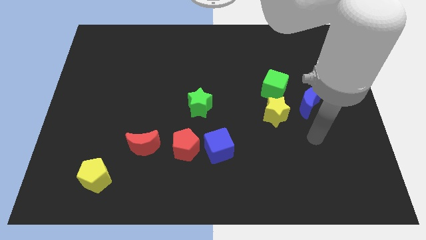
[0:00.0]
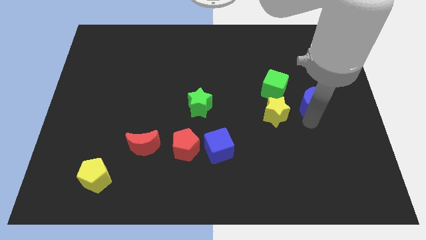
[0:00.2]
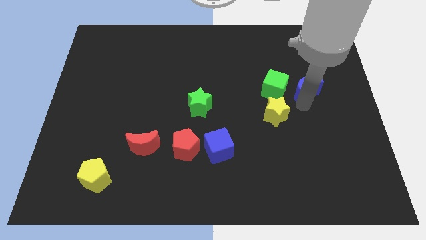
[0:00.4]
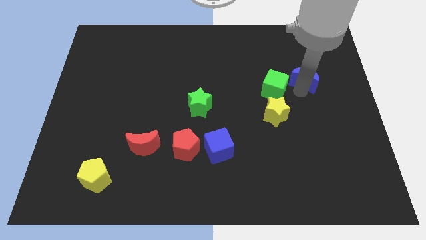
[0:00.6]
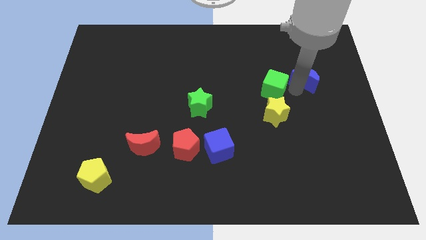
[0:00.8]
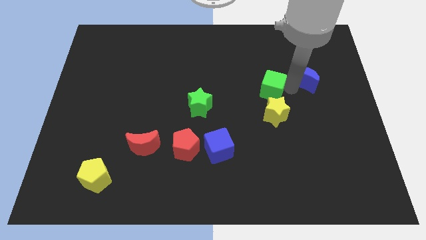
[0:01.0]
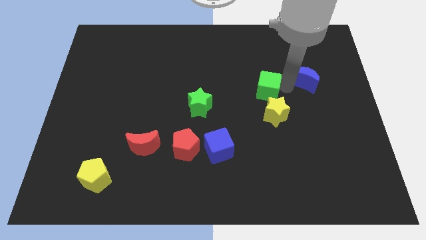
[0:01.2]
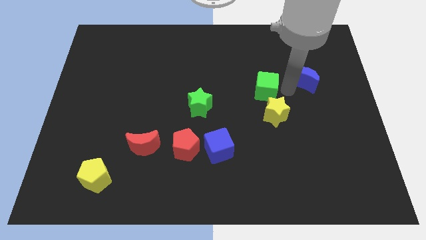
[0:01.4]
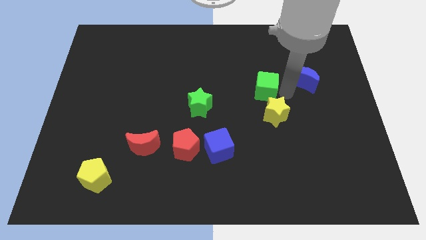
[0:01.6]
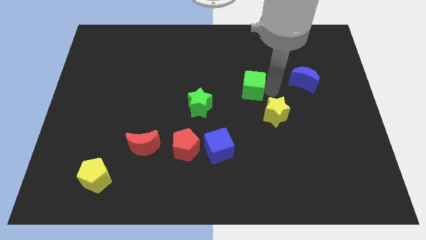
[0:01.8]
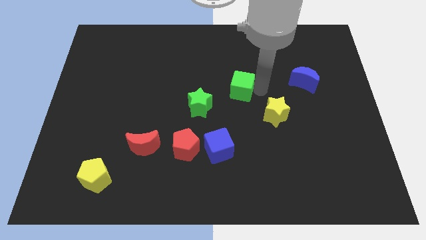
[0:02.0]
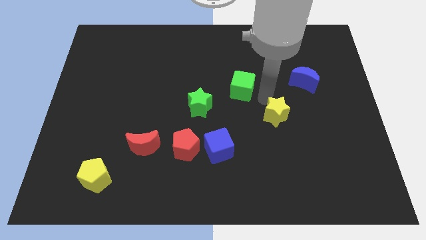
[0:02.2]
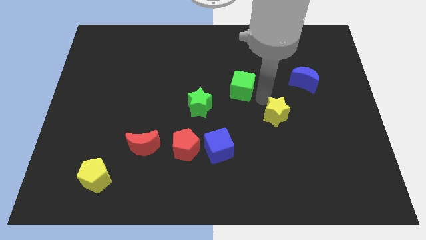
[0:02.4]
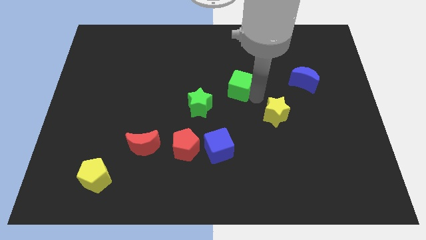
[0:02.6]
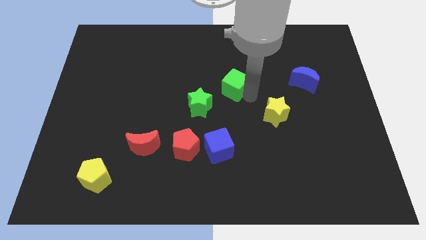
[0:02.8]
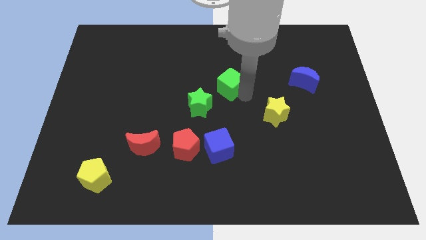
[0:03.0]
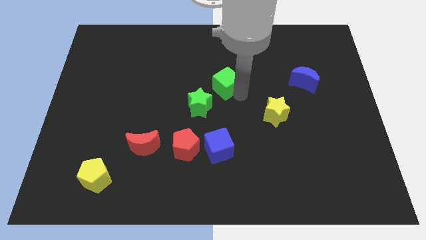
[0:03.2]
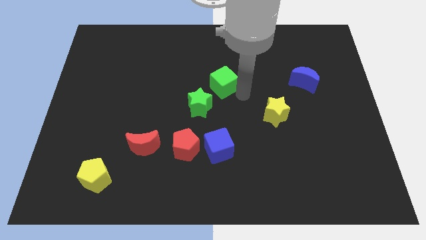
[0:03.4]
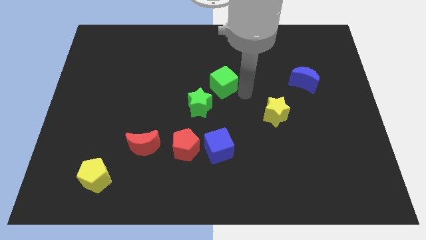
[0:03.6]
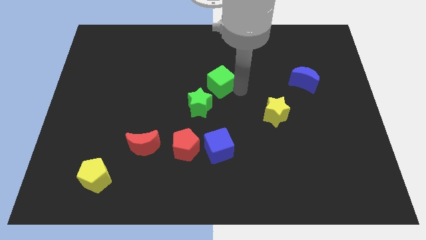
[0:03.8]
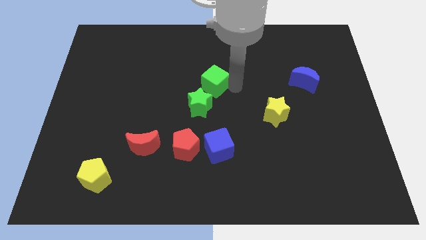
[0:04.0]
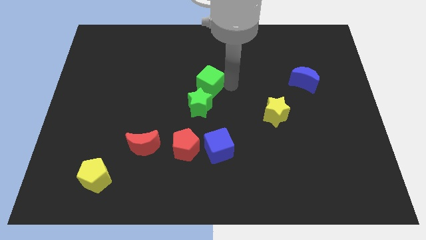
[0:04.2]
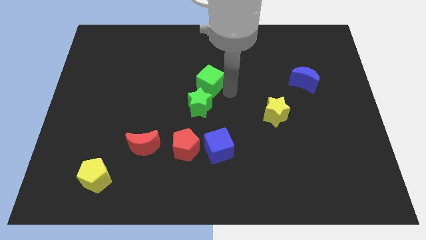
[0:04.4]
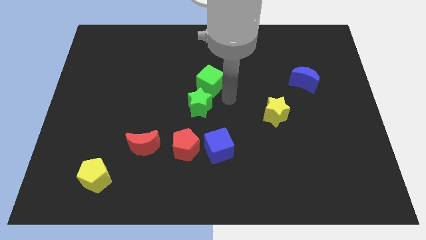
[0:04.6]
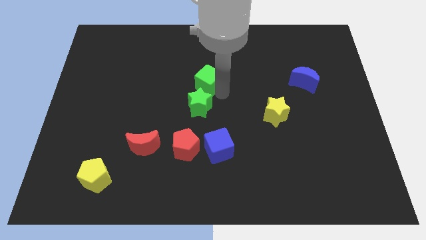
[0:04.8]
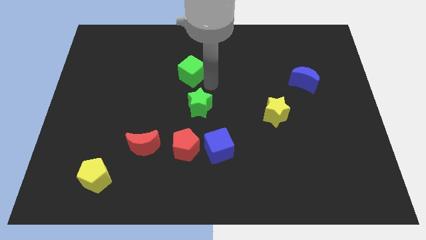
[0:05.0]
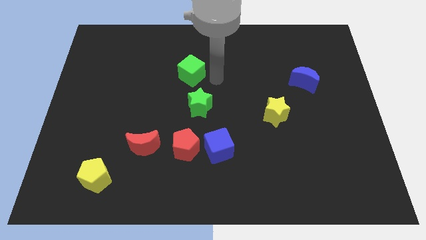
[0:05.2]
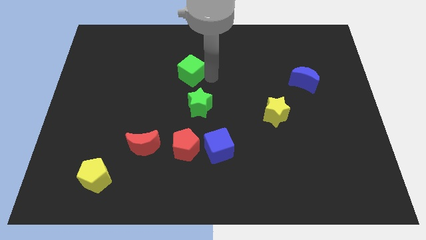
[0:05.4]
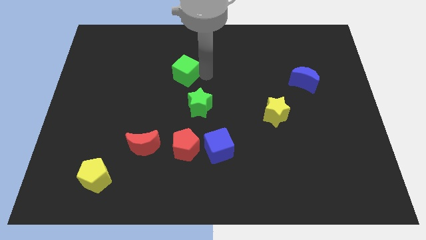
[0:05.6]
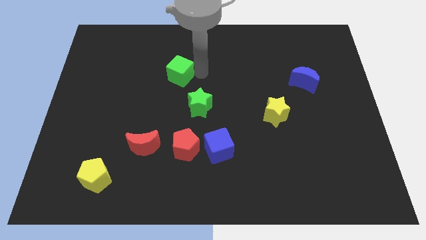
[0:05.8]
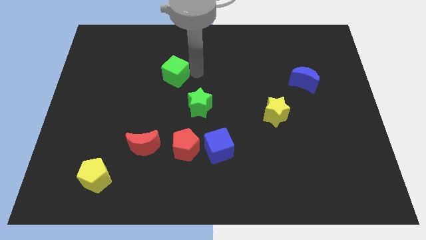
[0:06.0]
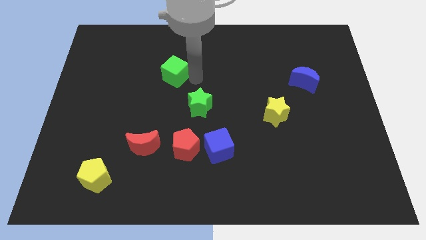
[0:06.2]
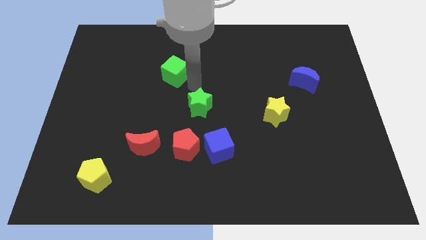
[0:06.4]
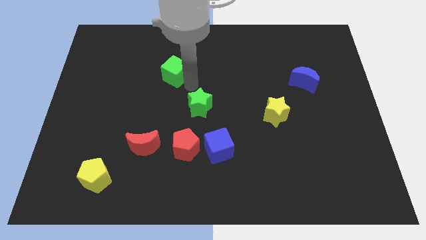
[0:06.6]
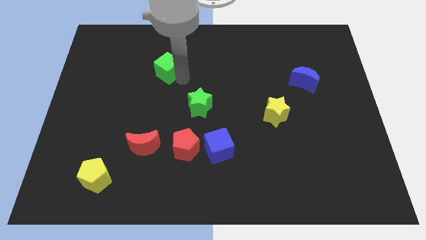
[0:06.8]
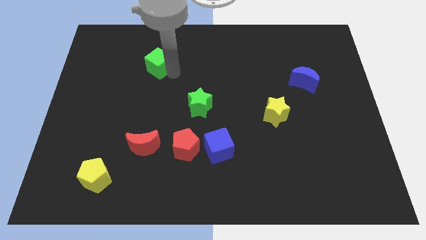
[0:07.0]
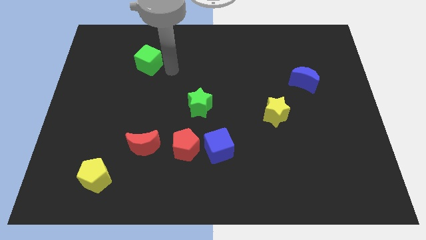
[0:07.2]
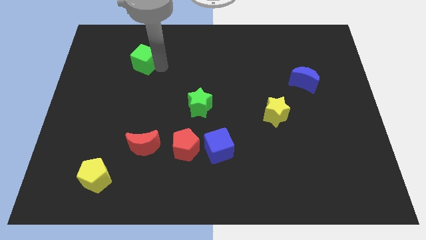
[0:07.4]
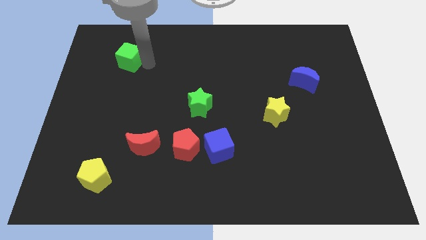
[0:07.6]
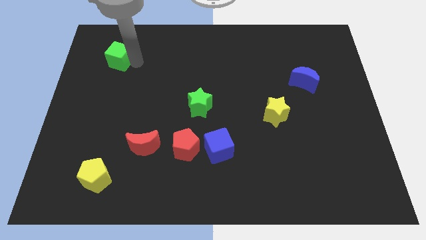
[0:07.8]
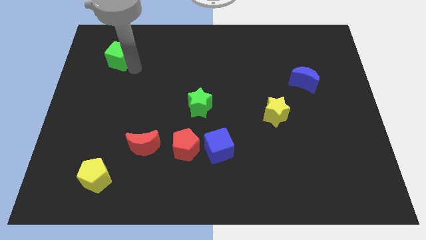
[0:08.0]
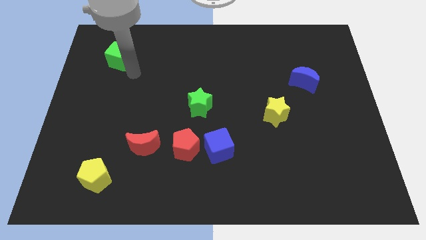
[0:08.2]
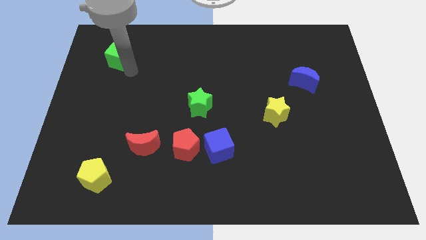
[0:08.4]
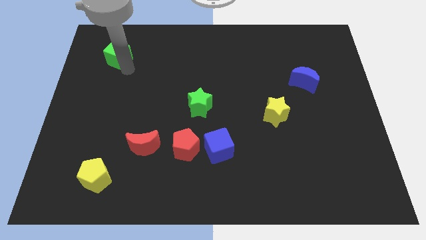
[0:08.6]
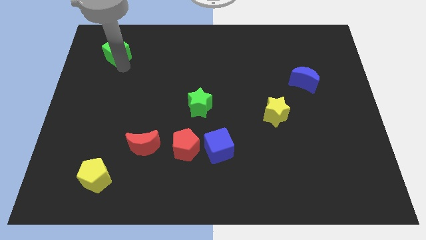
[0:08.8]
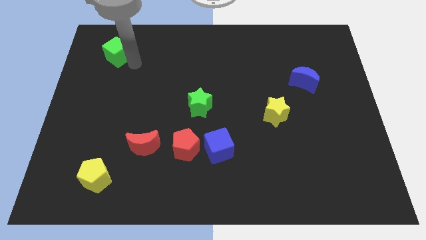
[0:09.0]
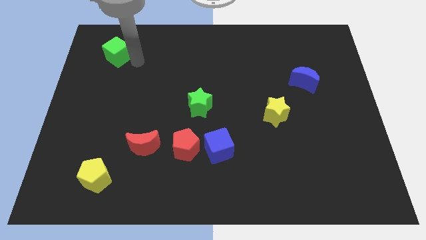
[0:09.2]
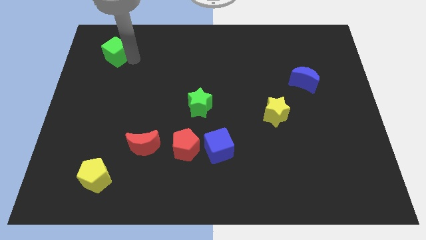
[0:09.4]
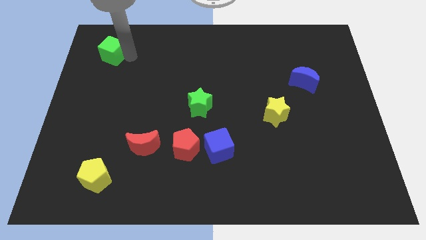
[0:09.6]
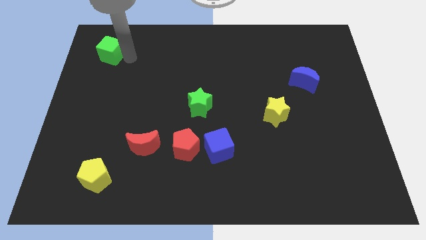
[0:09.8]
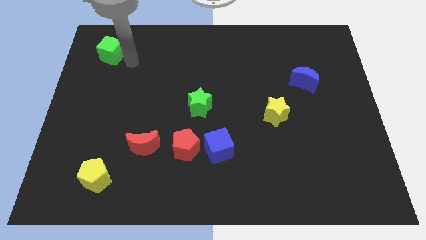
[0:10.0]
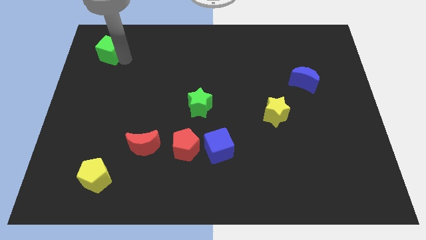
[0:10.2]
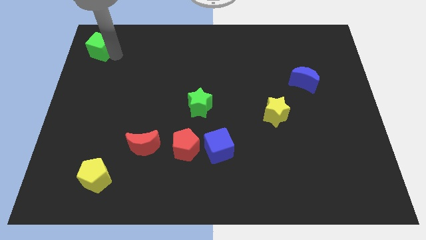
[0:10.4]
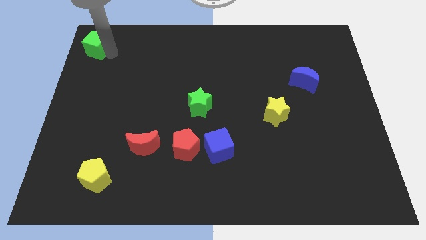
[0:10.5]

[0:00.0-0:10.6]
move the green cube to the top left corner

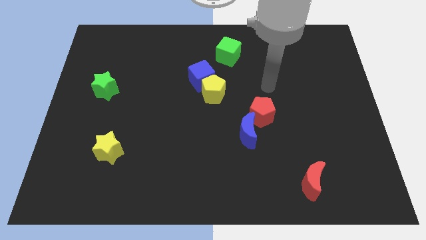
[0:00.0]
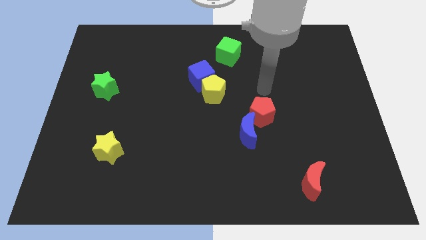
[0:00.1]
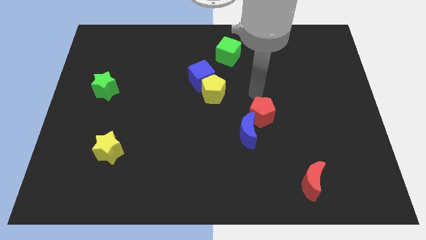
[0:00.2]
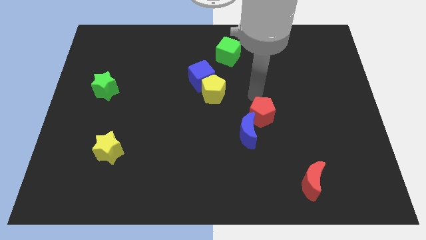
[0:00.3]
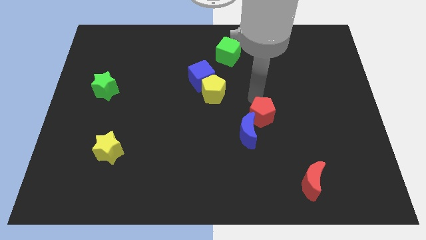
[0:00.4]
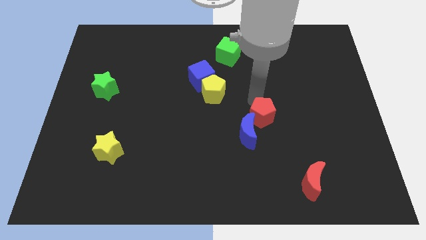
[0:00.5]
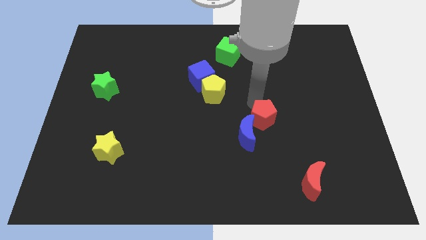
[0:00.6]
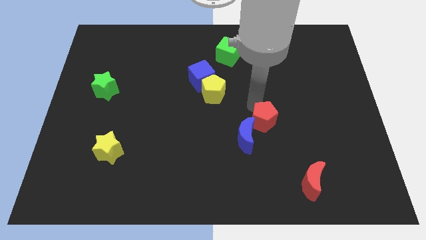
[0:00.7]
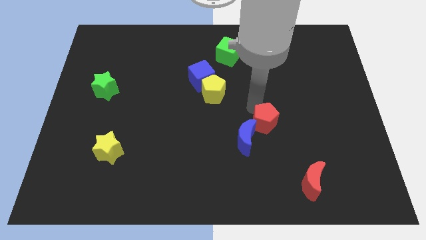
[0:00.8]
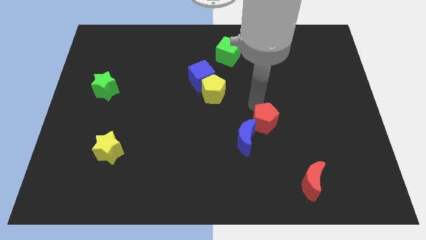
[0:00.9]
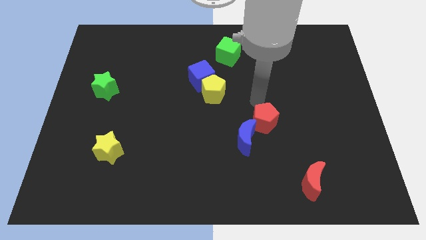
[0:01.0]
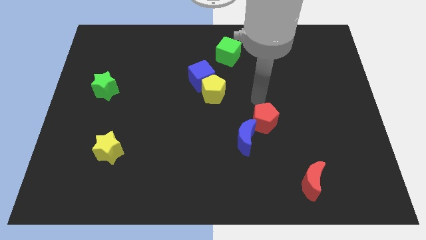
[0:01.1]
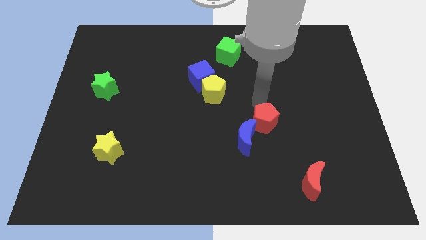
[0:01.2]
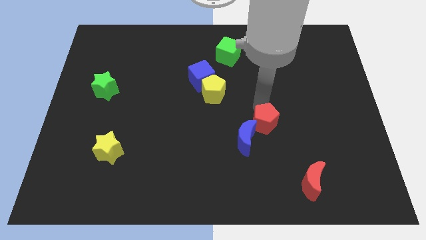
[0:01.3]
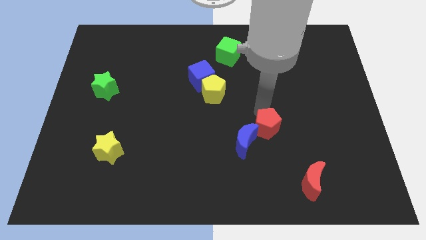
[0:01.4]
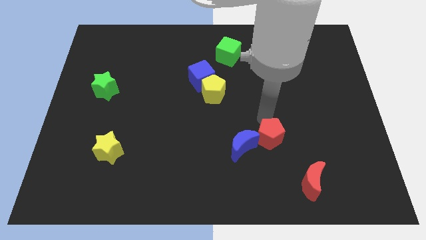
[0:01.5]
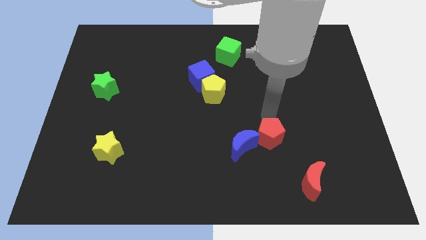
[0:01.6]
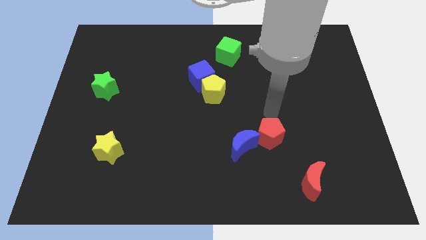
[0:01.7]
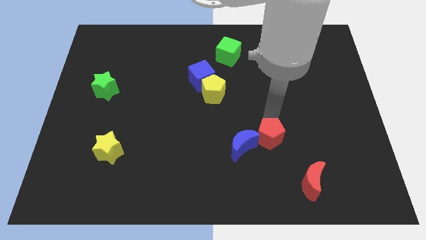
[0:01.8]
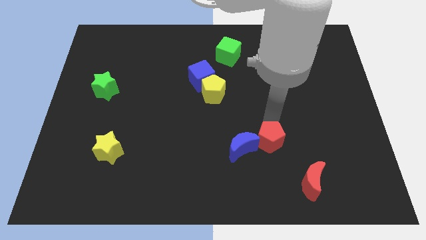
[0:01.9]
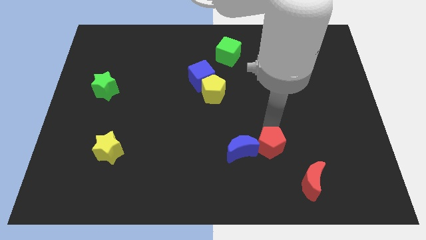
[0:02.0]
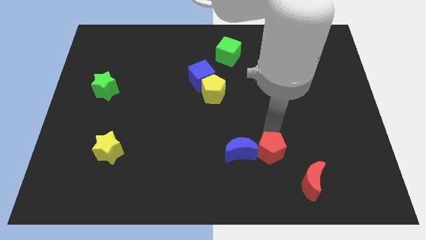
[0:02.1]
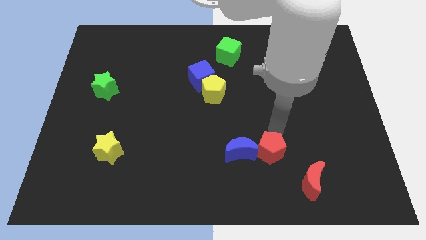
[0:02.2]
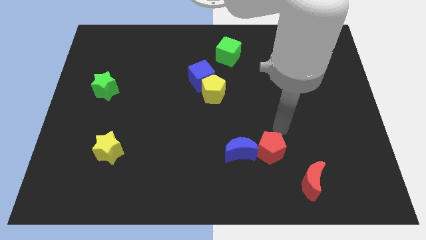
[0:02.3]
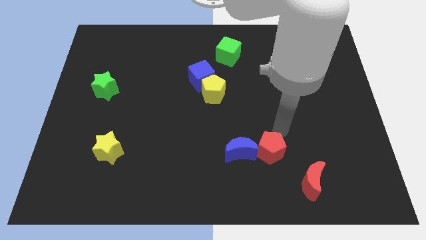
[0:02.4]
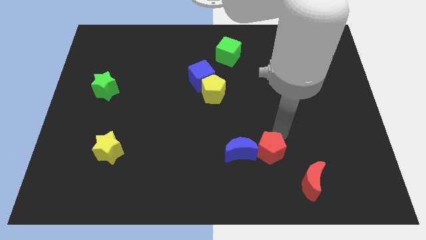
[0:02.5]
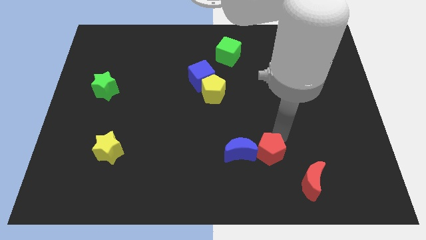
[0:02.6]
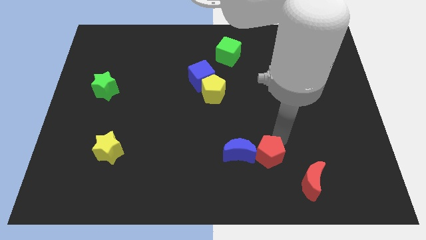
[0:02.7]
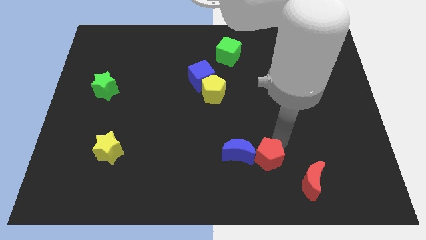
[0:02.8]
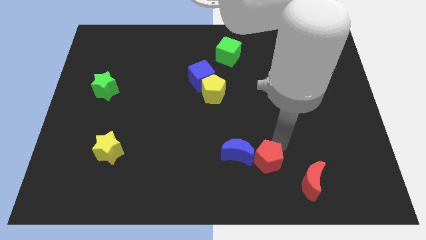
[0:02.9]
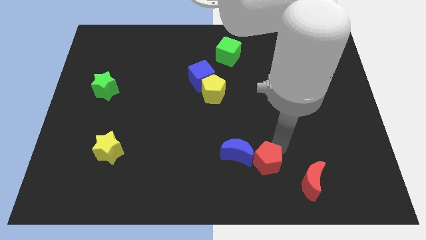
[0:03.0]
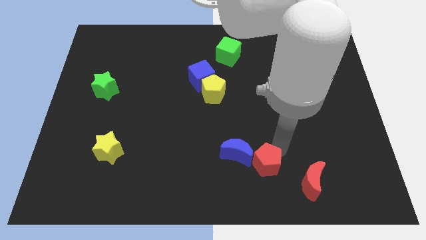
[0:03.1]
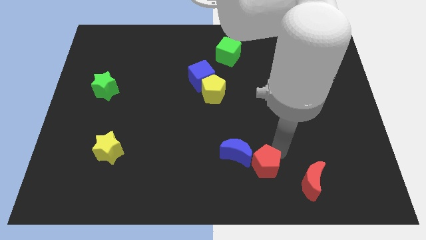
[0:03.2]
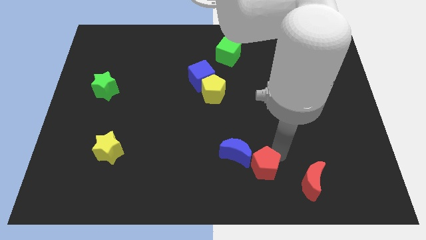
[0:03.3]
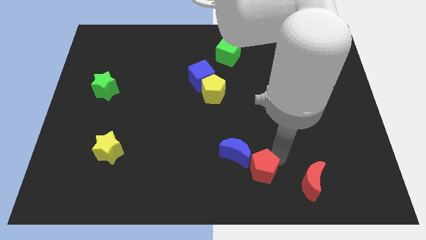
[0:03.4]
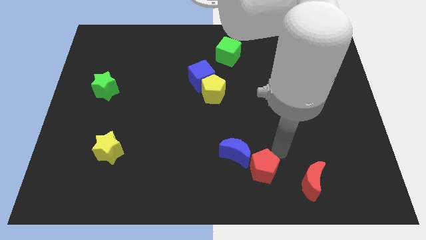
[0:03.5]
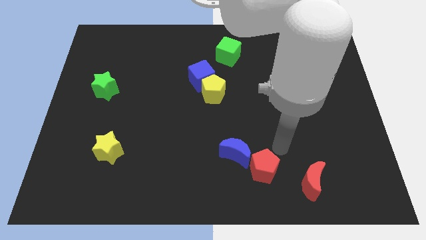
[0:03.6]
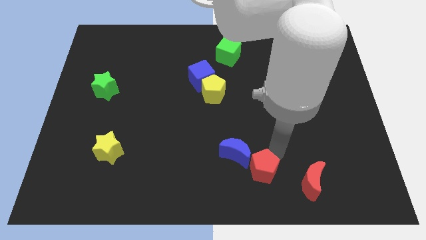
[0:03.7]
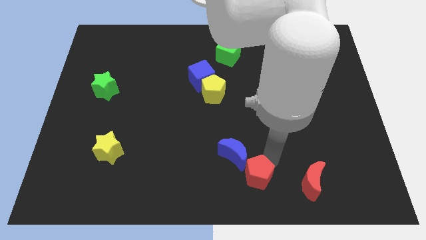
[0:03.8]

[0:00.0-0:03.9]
push the red pentagon to the bottom
